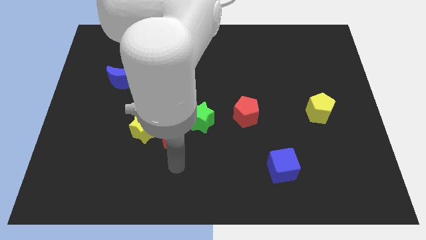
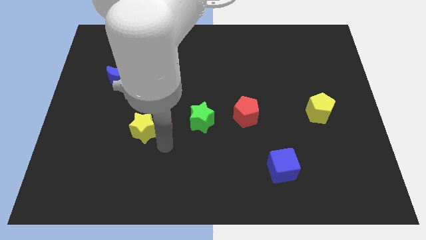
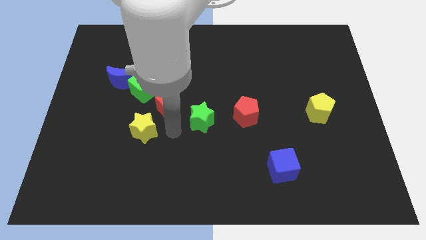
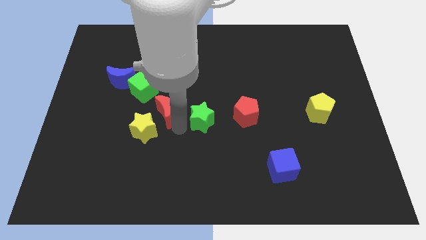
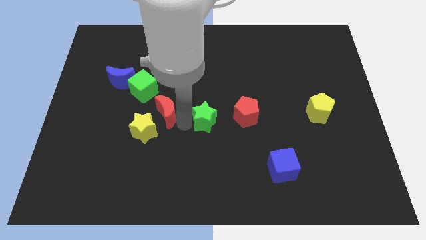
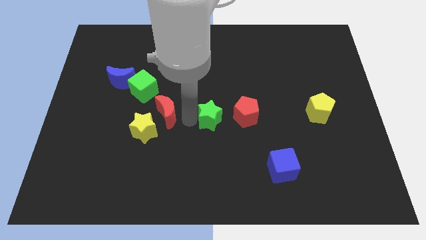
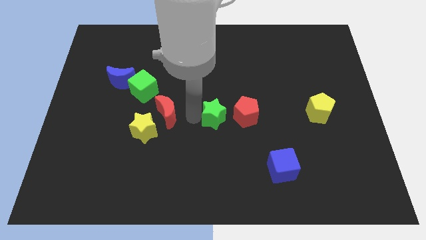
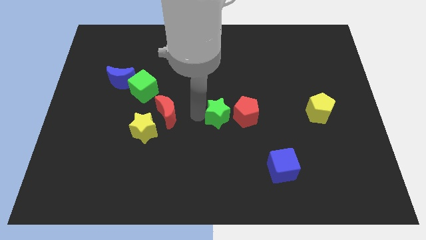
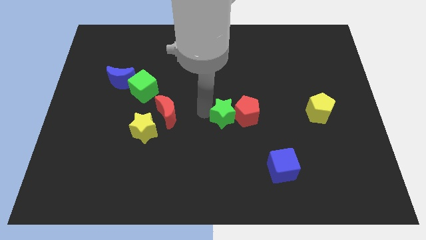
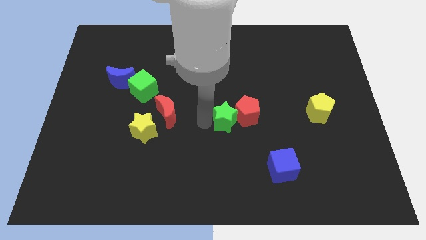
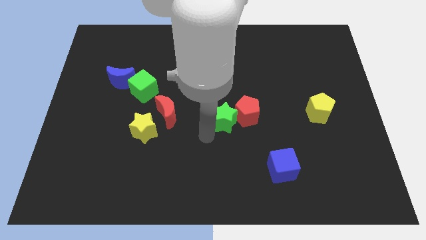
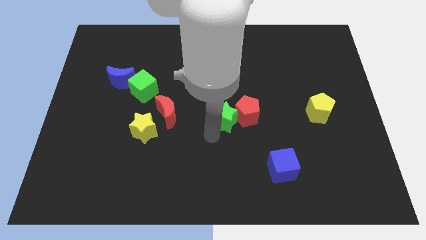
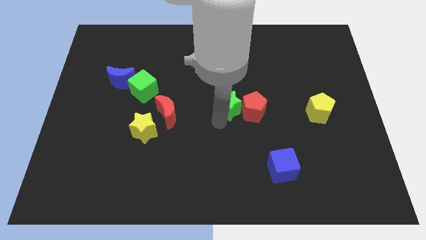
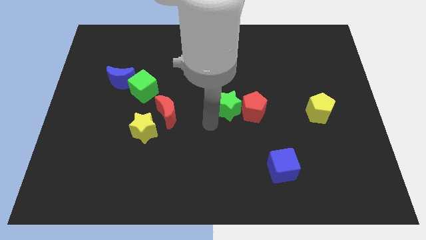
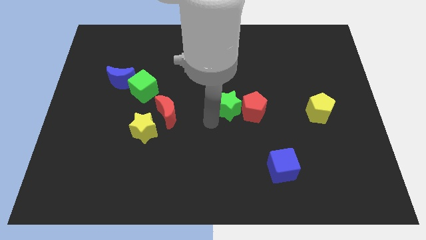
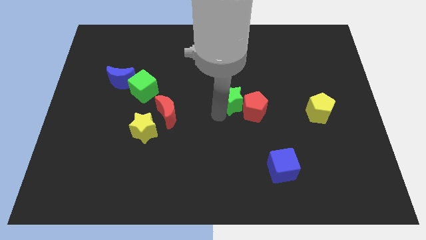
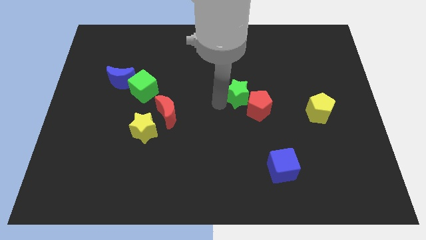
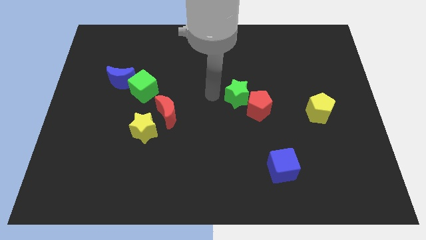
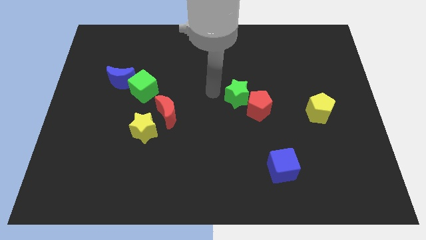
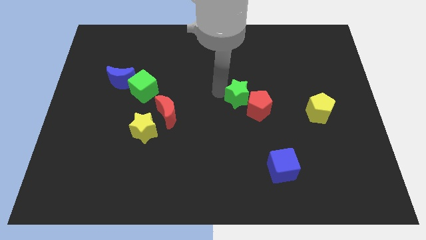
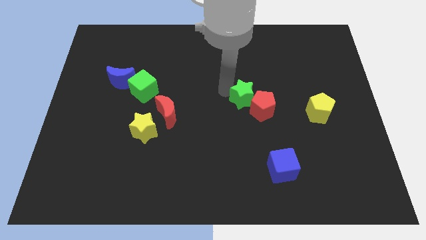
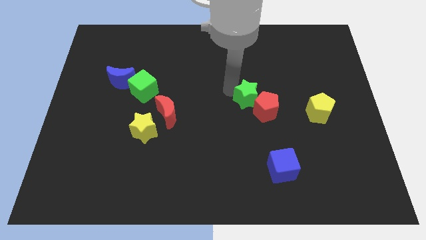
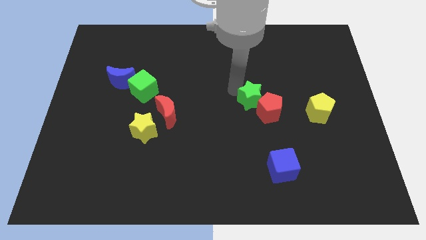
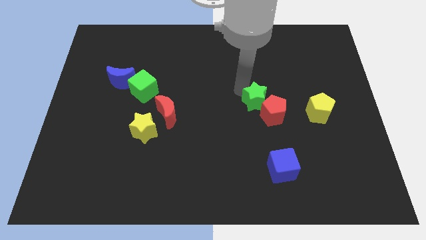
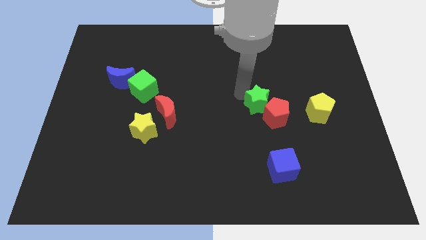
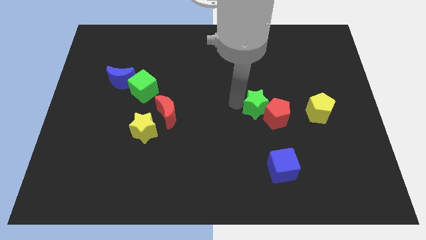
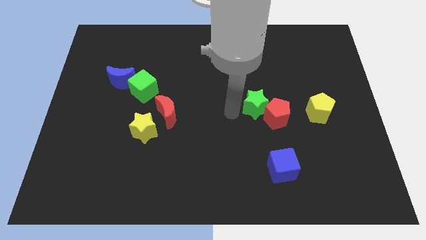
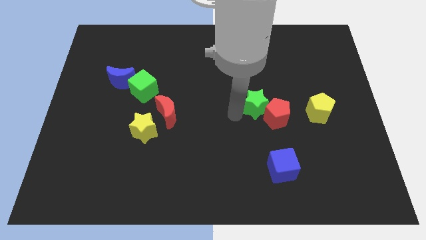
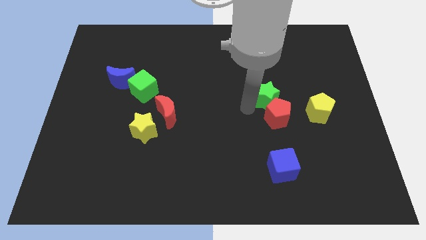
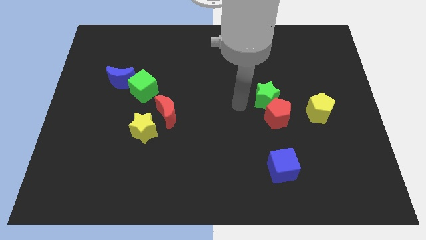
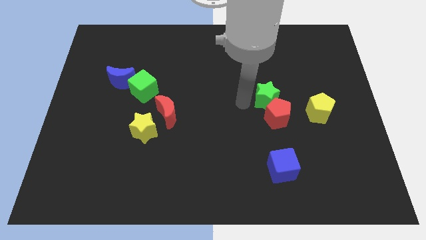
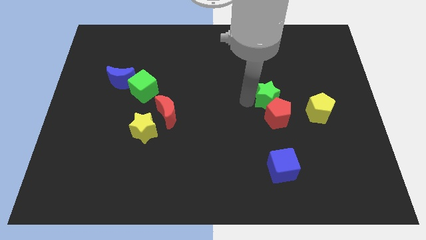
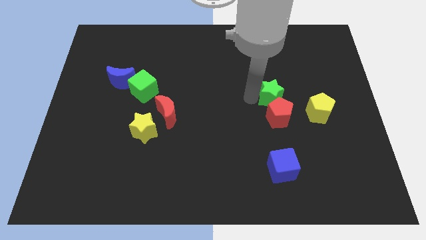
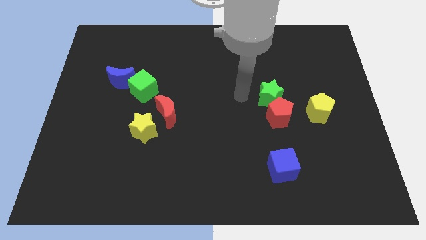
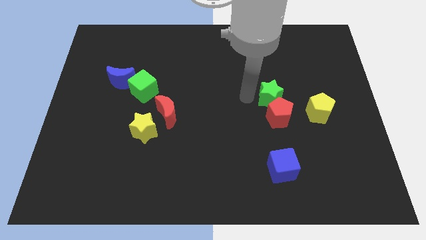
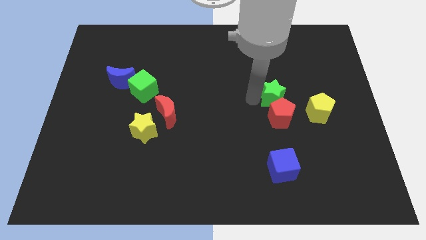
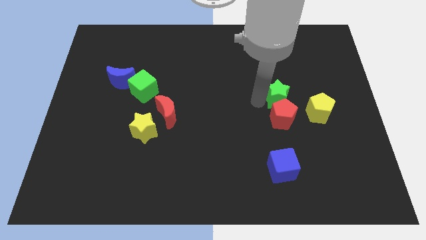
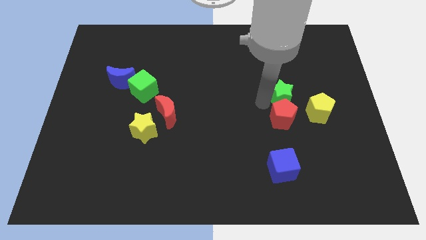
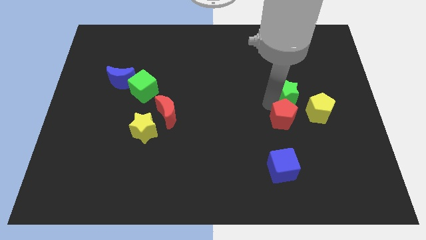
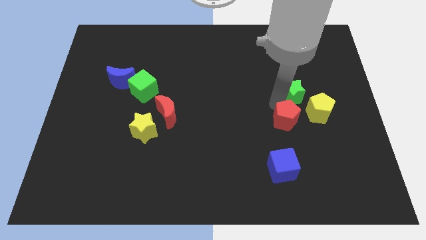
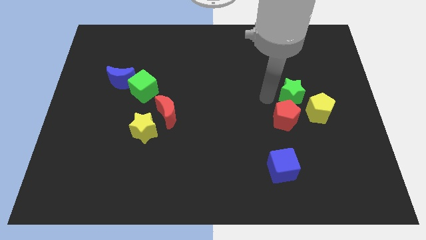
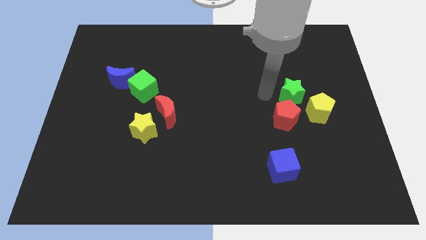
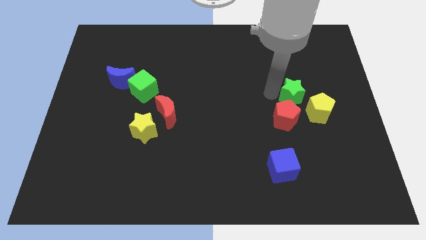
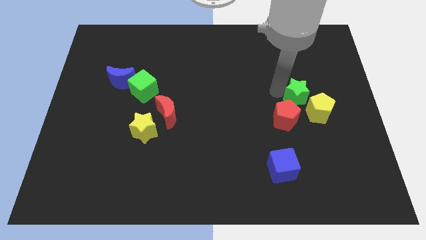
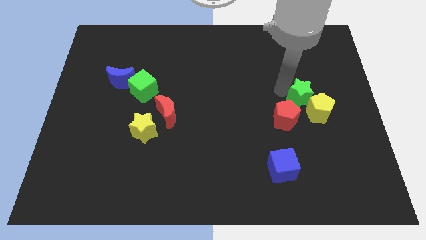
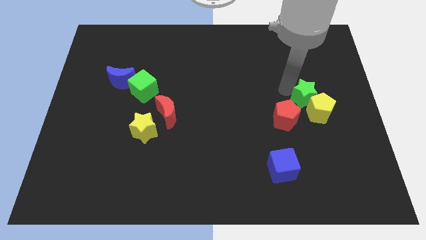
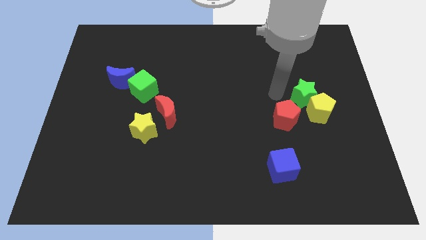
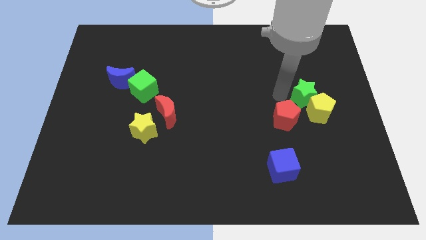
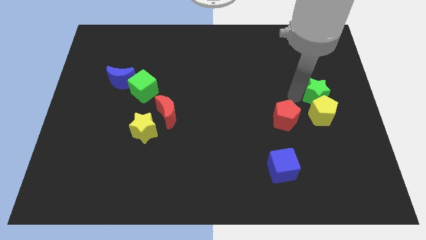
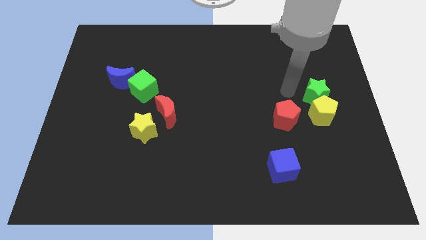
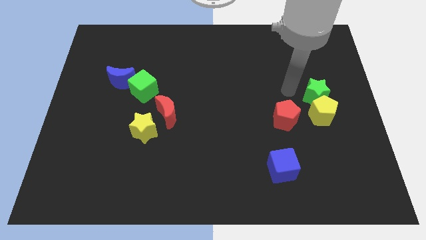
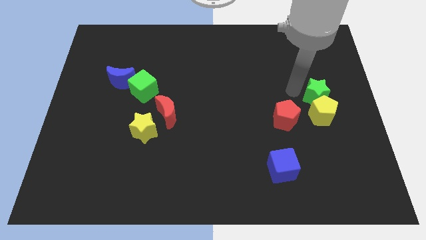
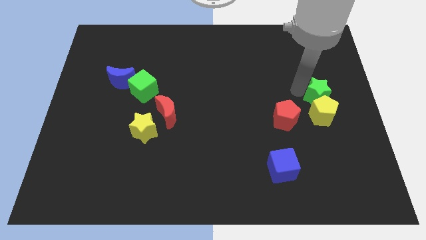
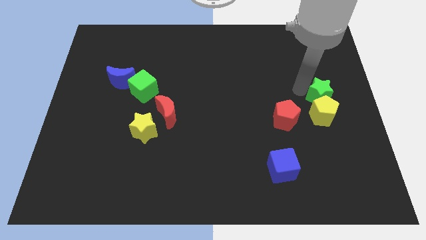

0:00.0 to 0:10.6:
push the green star to the center right
